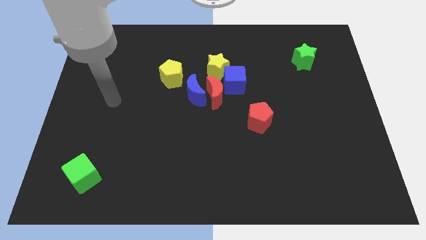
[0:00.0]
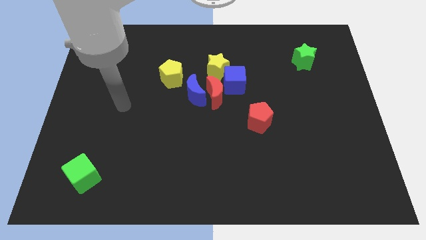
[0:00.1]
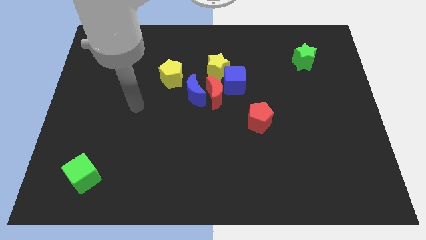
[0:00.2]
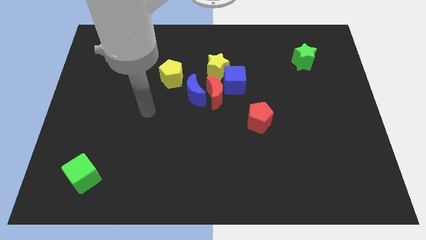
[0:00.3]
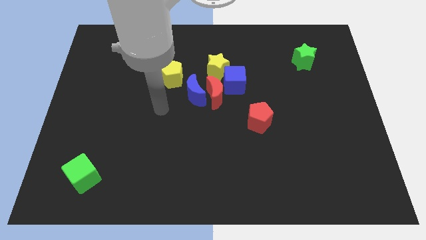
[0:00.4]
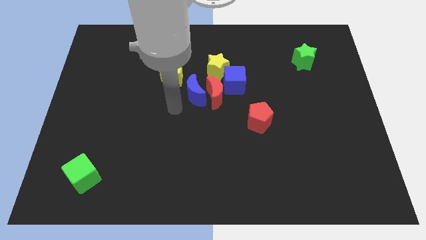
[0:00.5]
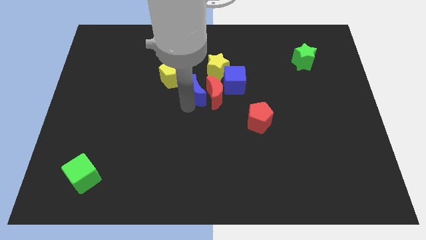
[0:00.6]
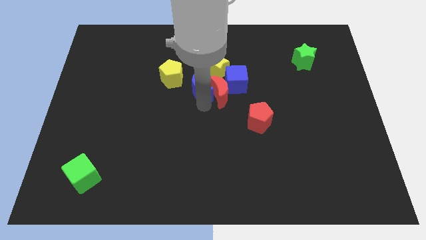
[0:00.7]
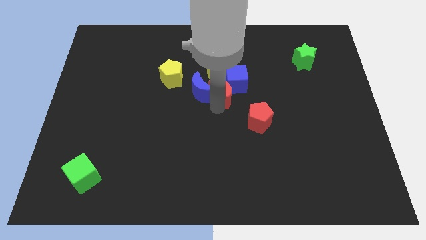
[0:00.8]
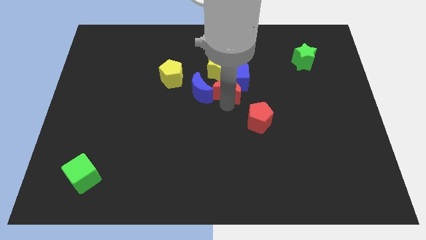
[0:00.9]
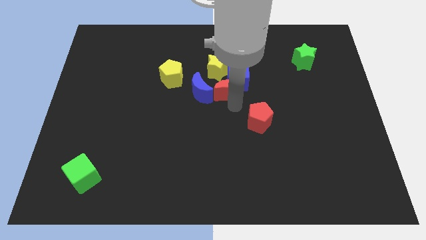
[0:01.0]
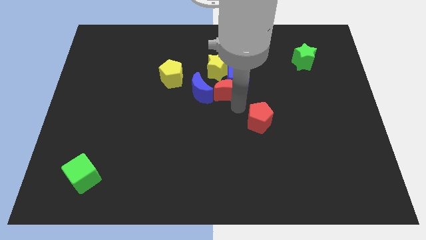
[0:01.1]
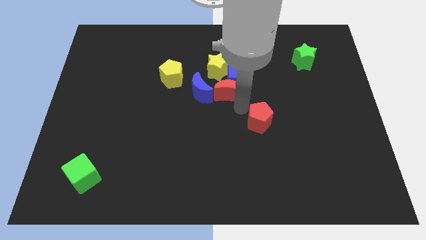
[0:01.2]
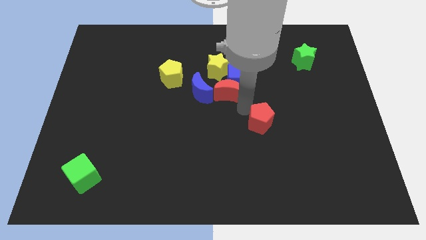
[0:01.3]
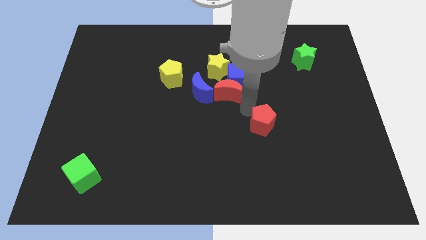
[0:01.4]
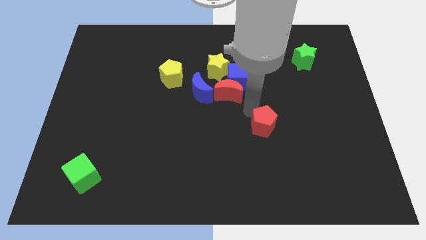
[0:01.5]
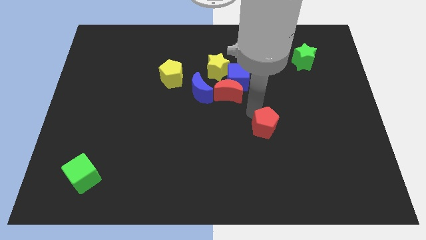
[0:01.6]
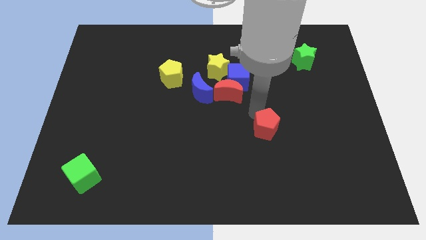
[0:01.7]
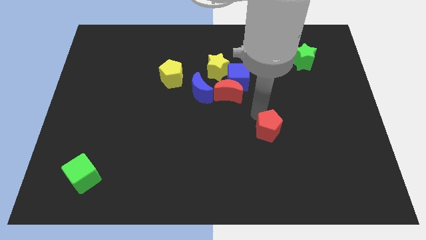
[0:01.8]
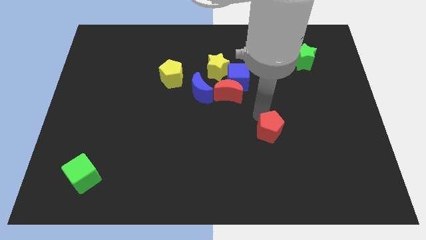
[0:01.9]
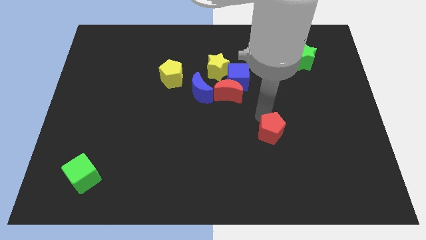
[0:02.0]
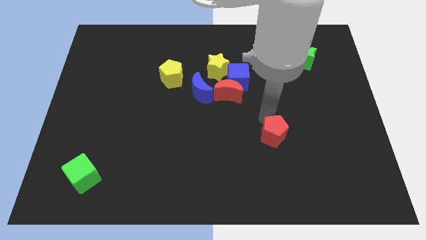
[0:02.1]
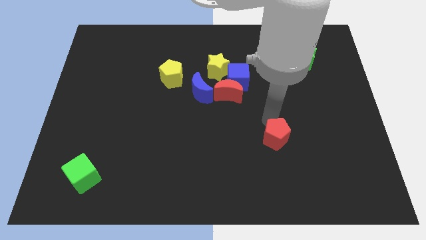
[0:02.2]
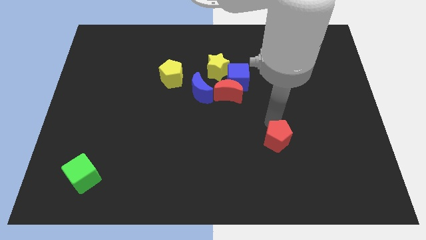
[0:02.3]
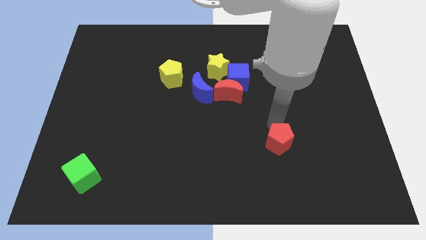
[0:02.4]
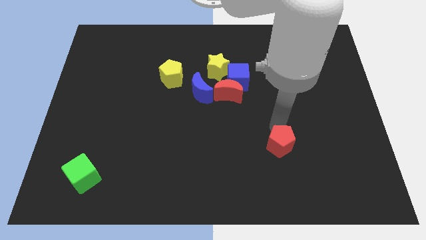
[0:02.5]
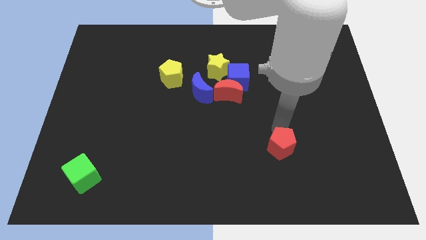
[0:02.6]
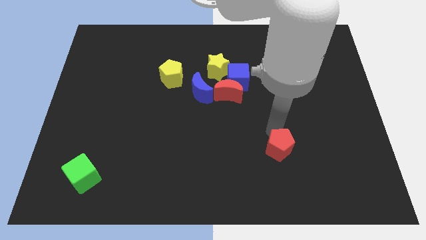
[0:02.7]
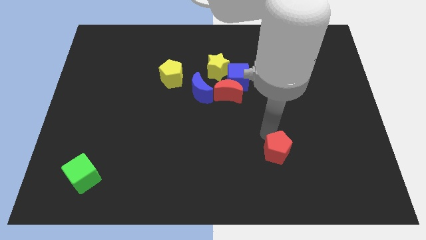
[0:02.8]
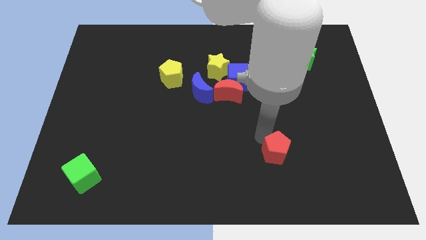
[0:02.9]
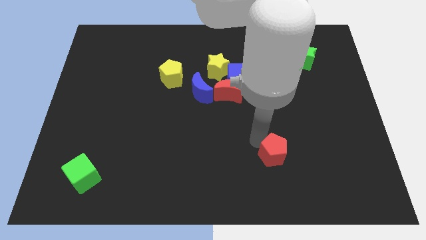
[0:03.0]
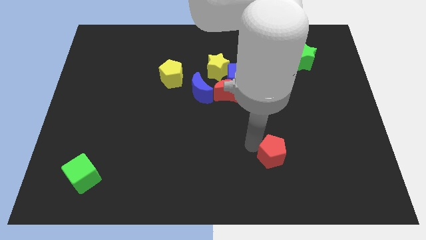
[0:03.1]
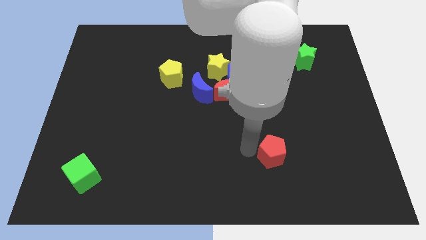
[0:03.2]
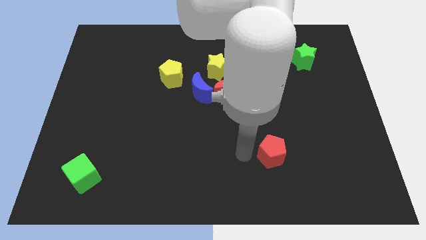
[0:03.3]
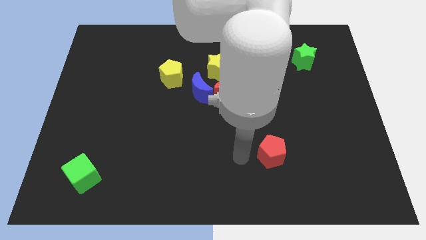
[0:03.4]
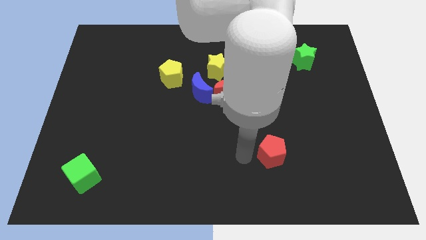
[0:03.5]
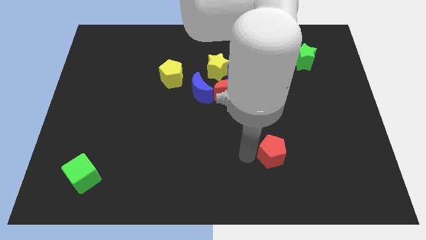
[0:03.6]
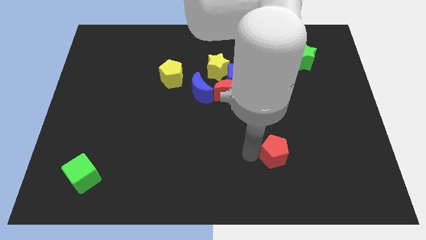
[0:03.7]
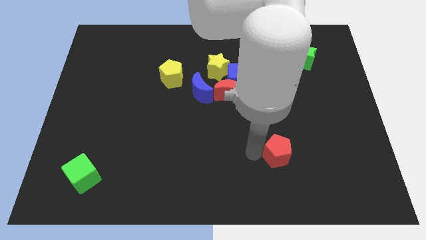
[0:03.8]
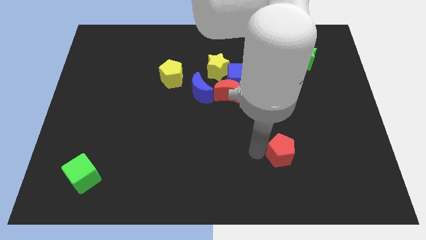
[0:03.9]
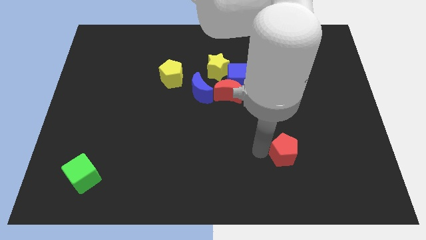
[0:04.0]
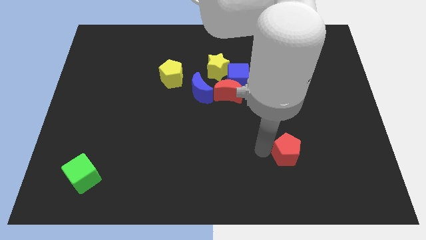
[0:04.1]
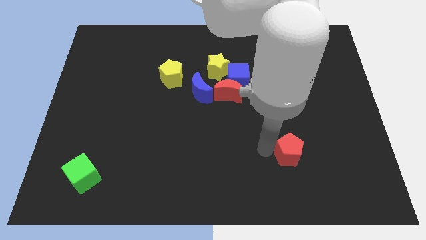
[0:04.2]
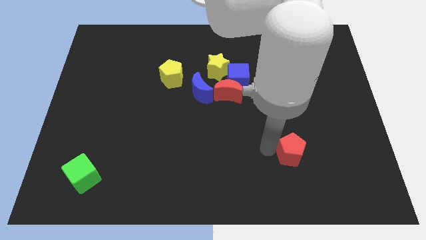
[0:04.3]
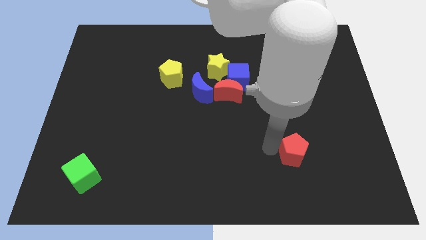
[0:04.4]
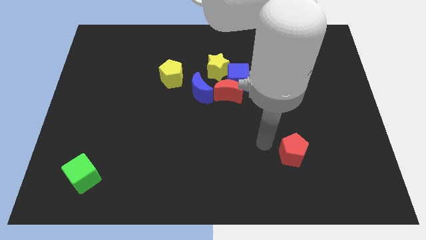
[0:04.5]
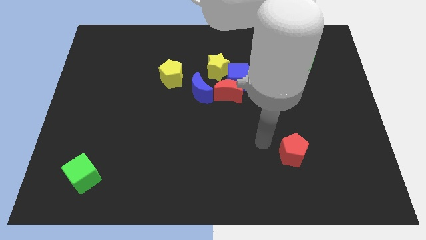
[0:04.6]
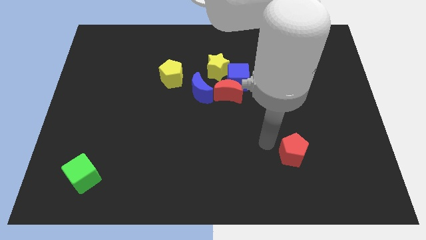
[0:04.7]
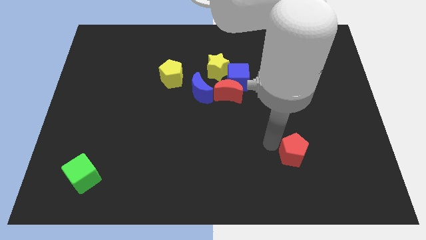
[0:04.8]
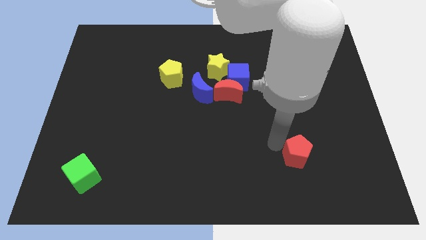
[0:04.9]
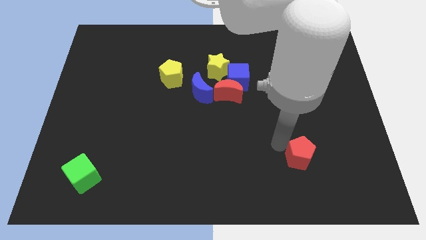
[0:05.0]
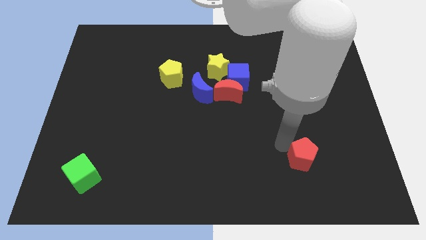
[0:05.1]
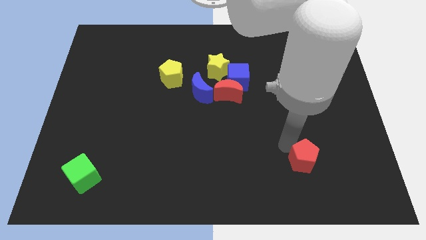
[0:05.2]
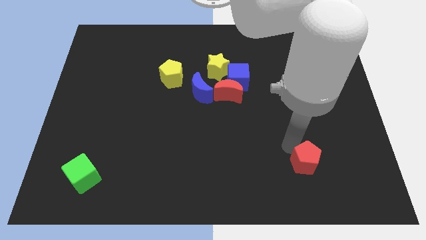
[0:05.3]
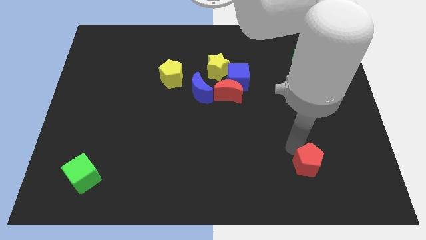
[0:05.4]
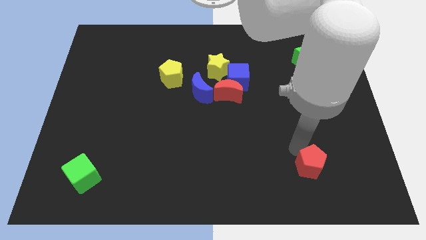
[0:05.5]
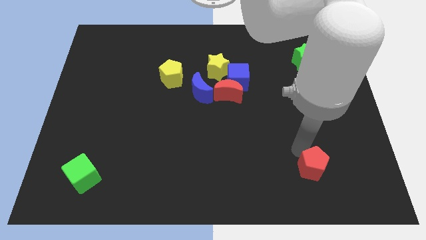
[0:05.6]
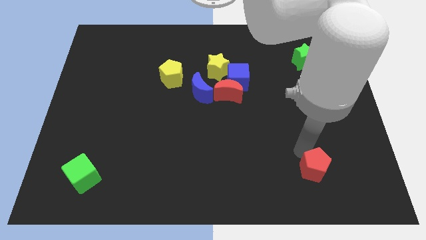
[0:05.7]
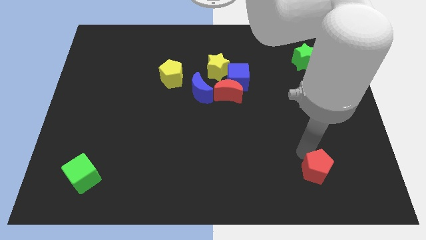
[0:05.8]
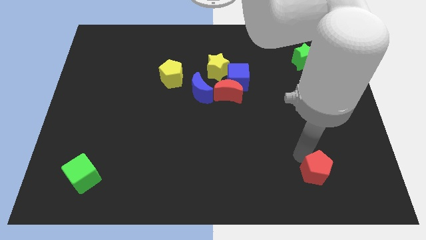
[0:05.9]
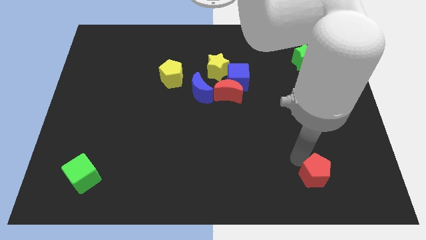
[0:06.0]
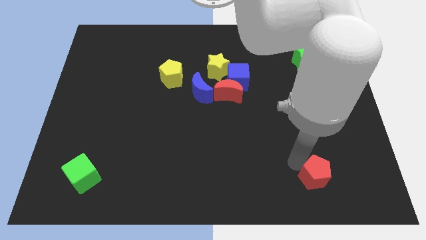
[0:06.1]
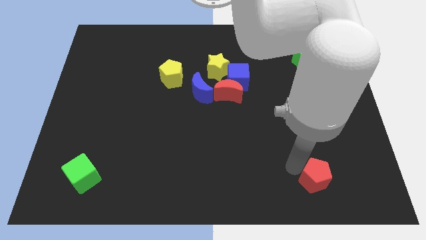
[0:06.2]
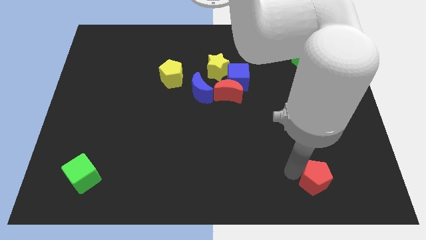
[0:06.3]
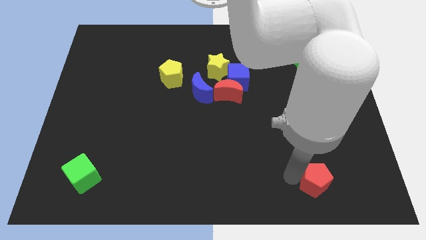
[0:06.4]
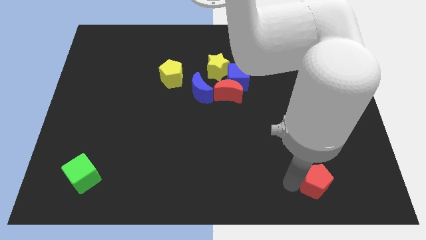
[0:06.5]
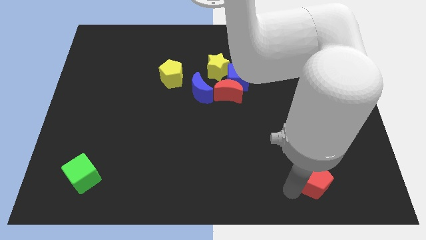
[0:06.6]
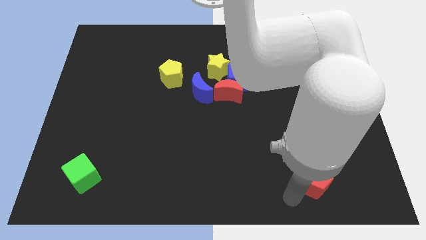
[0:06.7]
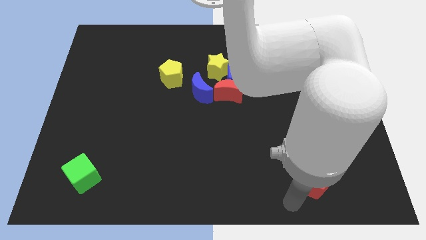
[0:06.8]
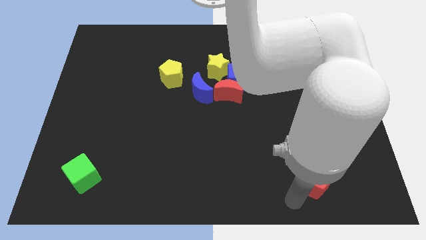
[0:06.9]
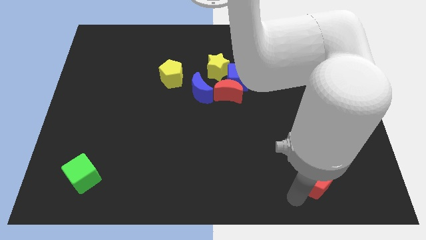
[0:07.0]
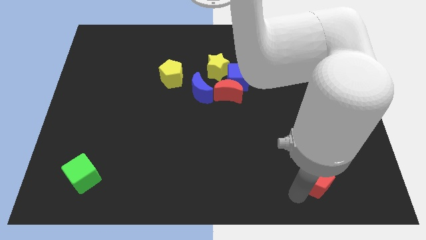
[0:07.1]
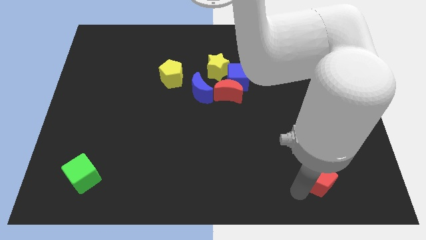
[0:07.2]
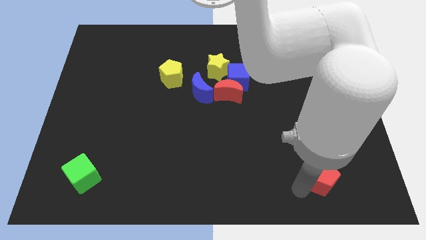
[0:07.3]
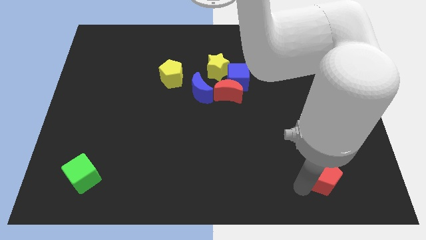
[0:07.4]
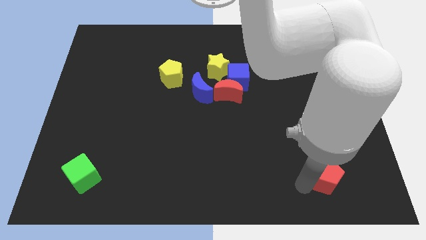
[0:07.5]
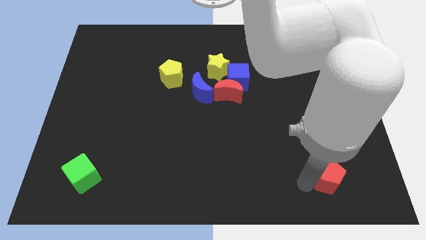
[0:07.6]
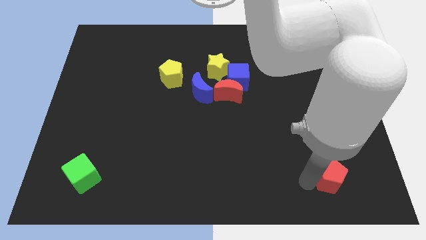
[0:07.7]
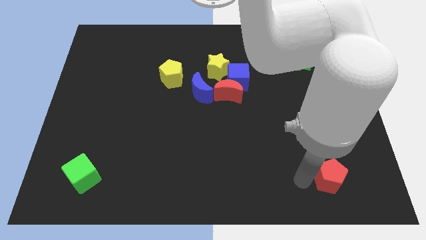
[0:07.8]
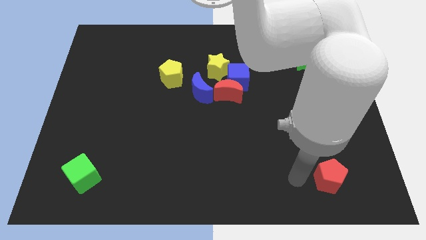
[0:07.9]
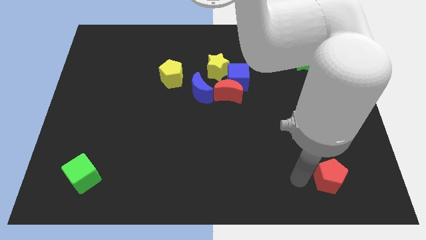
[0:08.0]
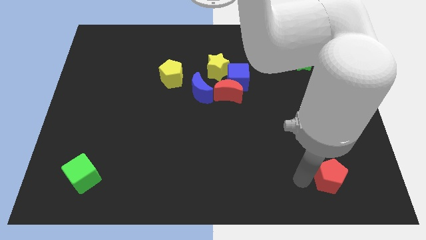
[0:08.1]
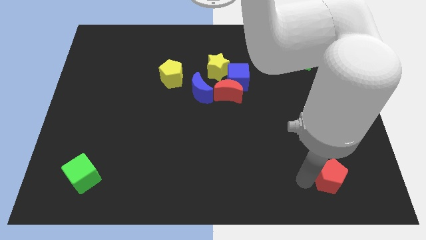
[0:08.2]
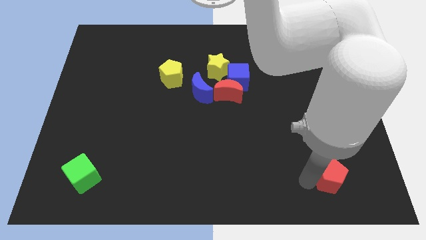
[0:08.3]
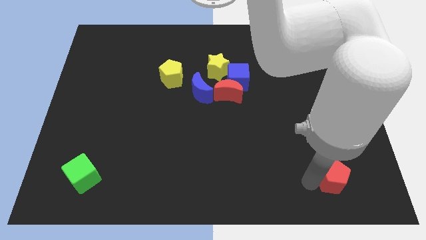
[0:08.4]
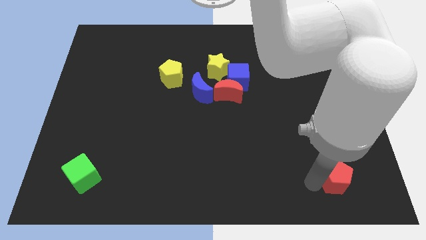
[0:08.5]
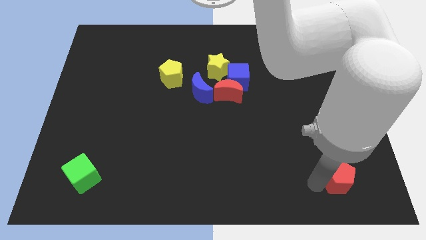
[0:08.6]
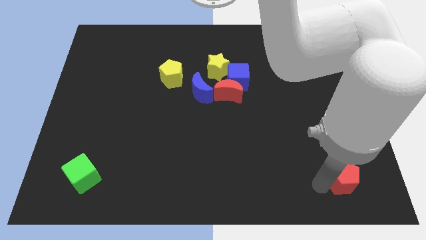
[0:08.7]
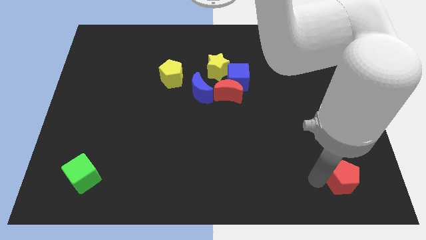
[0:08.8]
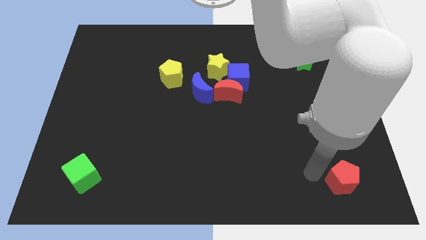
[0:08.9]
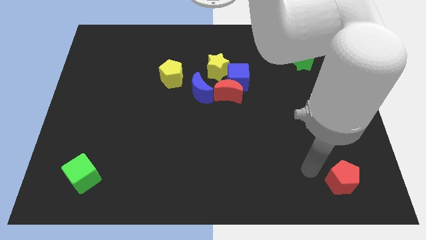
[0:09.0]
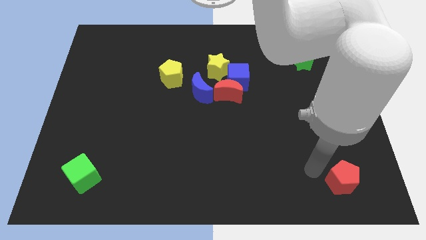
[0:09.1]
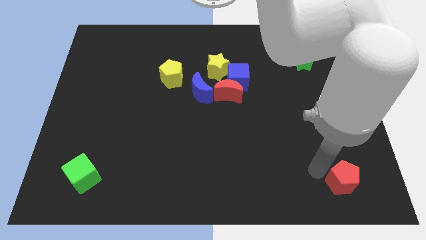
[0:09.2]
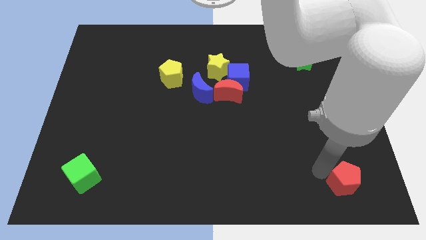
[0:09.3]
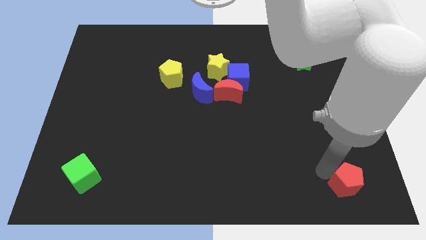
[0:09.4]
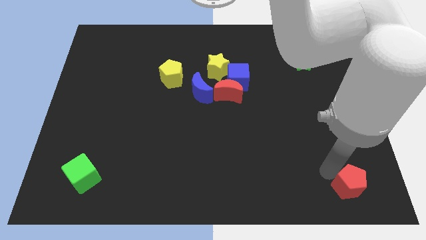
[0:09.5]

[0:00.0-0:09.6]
put the red pentagon to the lower right corner
